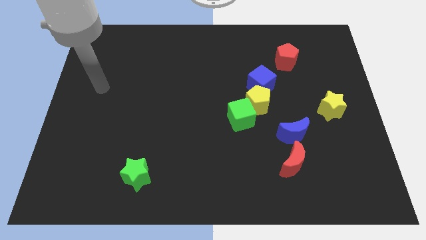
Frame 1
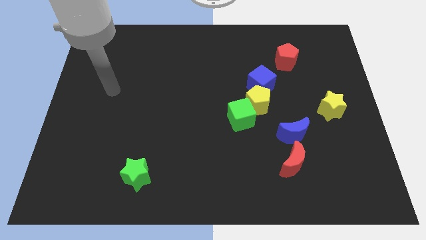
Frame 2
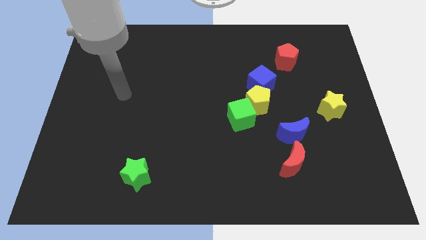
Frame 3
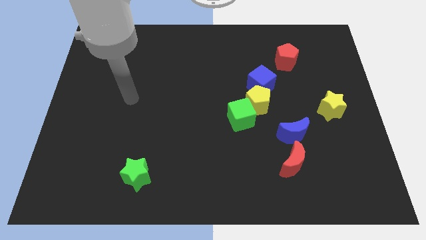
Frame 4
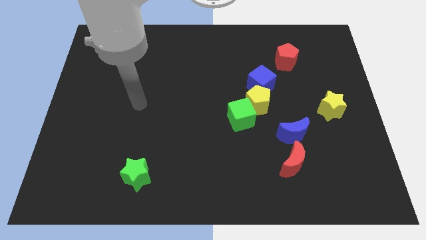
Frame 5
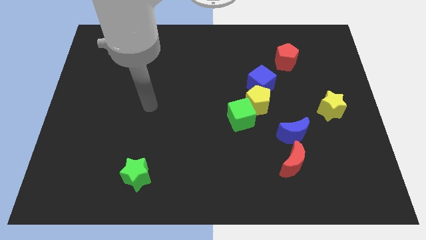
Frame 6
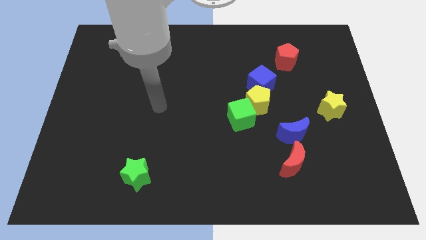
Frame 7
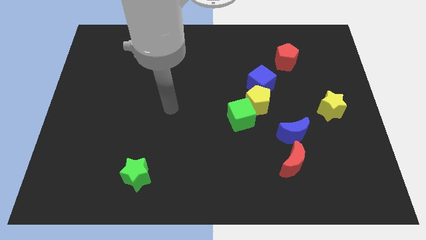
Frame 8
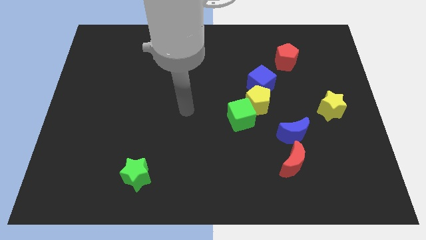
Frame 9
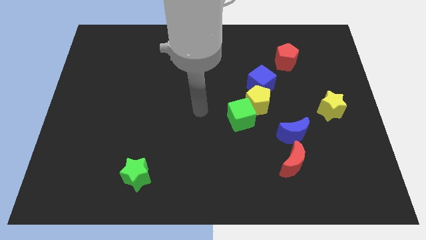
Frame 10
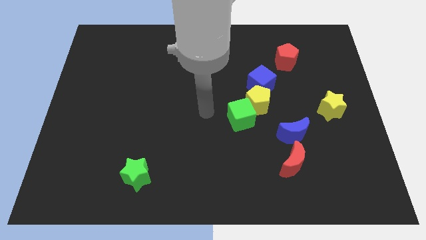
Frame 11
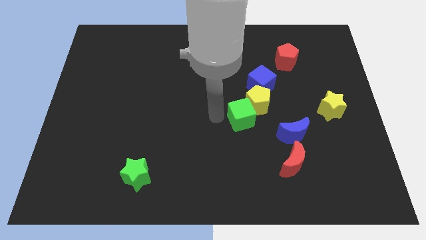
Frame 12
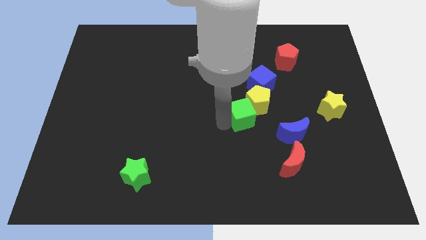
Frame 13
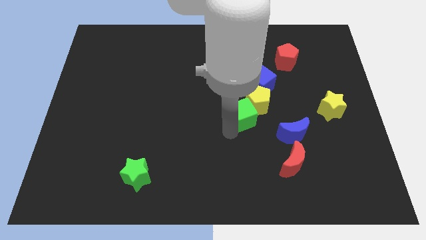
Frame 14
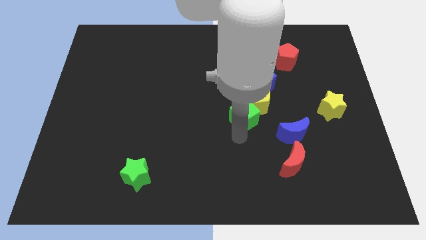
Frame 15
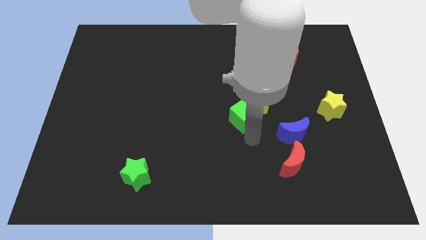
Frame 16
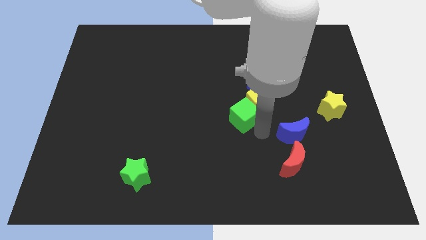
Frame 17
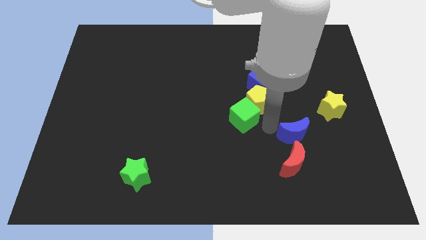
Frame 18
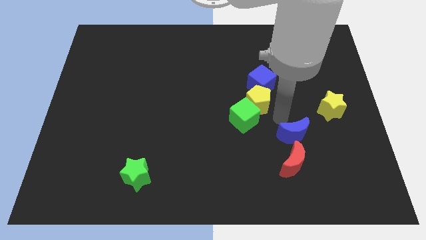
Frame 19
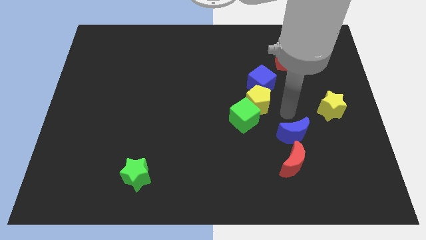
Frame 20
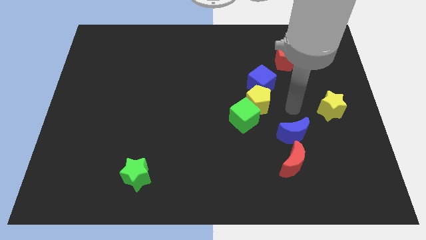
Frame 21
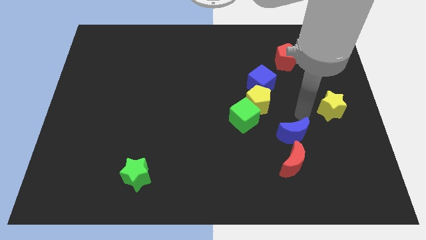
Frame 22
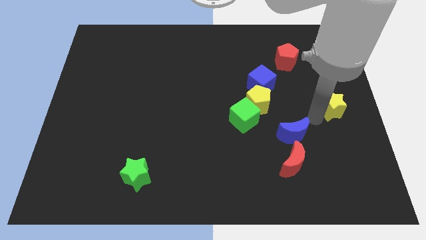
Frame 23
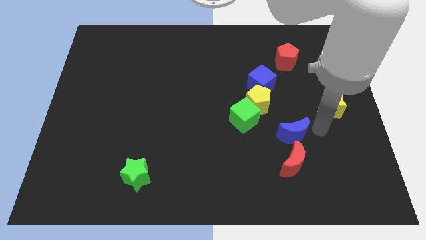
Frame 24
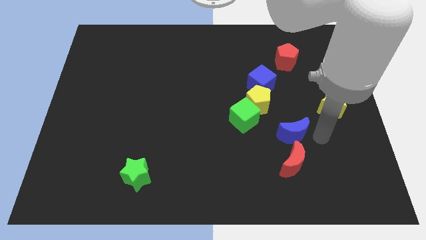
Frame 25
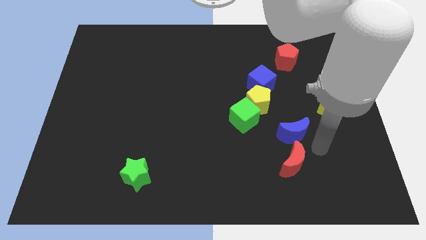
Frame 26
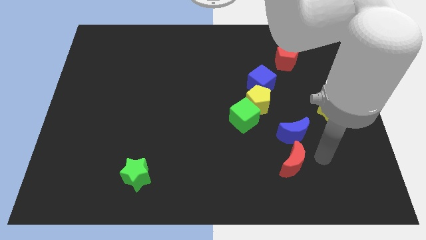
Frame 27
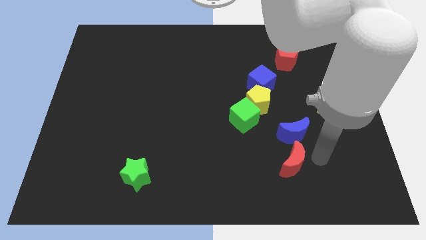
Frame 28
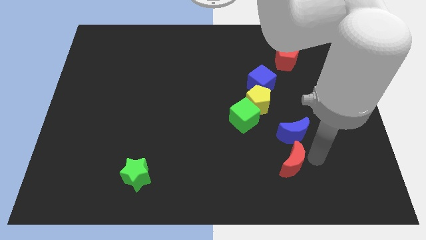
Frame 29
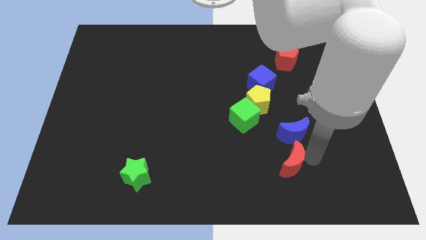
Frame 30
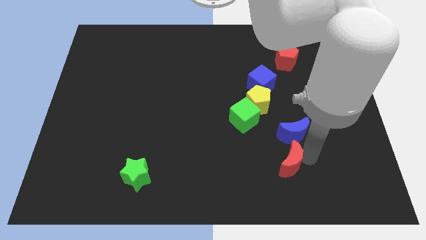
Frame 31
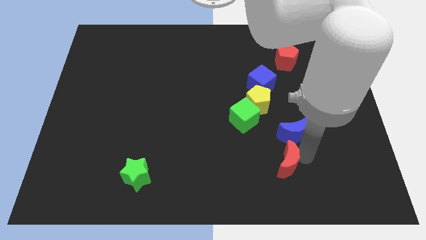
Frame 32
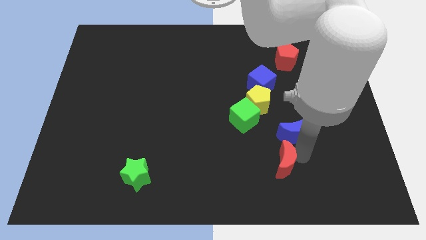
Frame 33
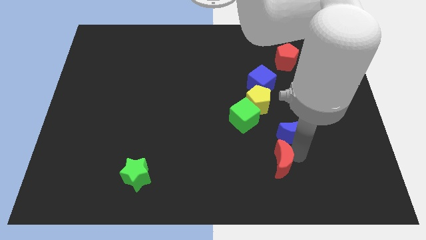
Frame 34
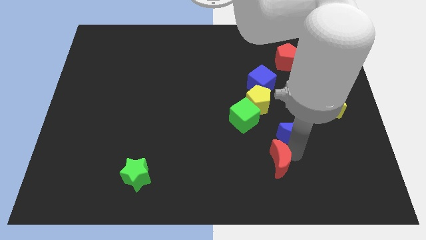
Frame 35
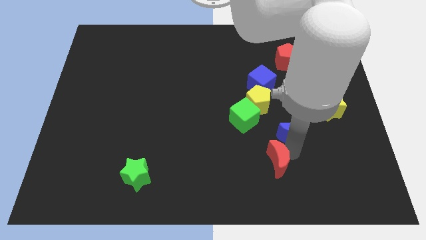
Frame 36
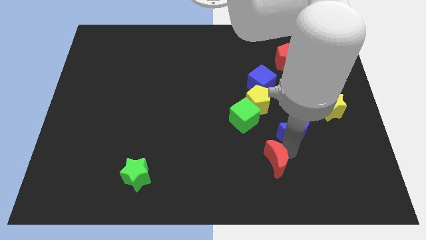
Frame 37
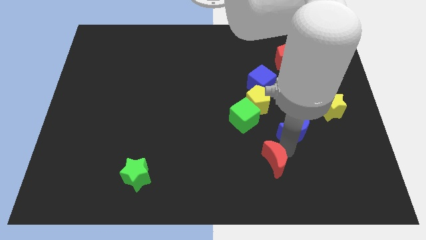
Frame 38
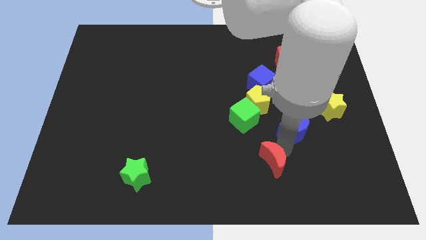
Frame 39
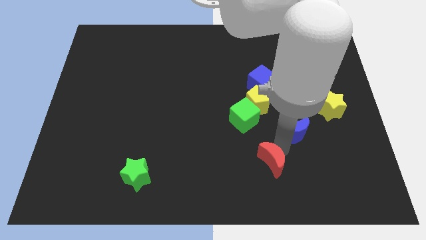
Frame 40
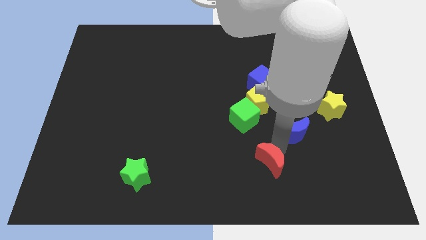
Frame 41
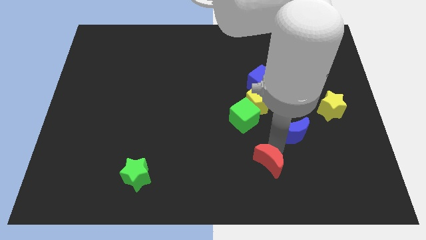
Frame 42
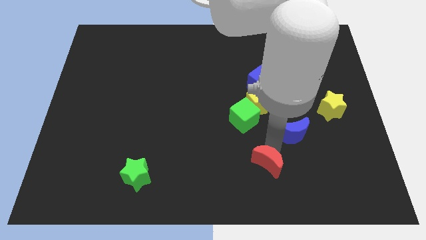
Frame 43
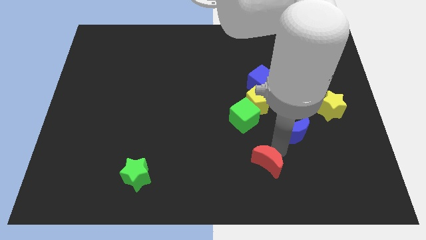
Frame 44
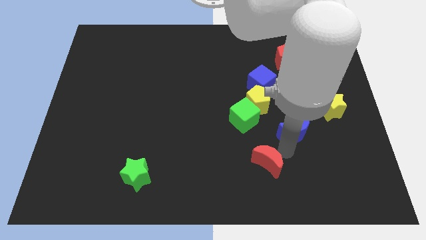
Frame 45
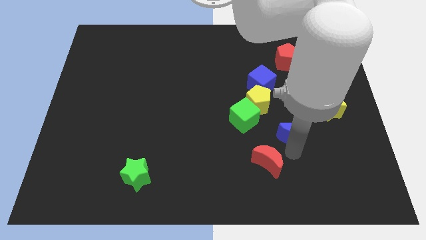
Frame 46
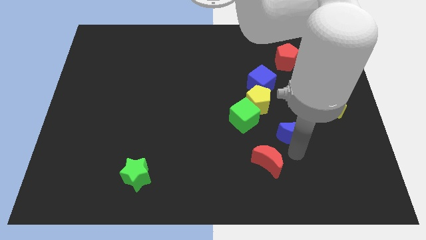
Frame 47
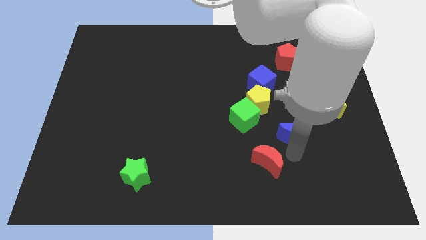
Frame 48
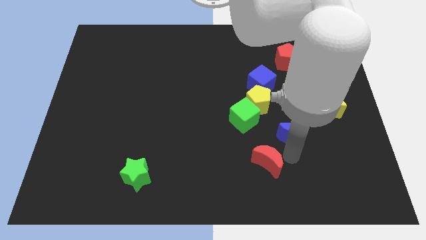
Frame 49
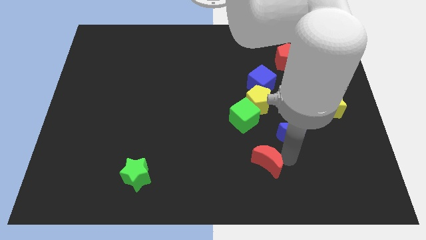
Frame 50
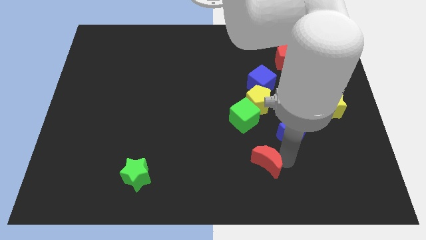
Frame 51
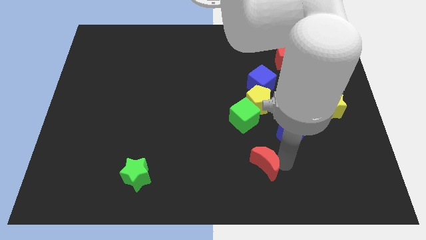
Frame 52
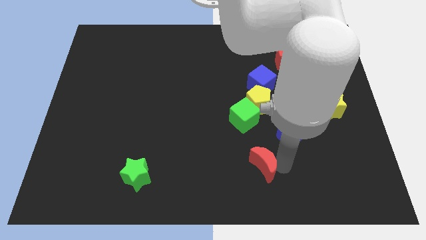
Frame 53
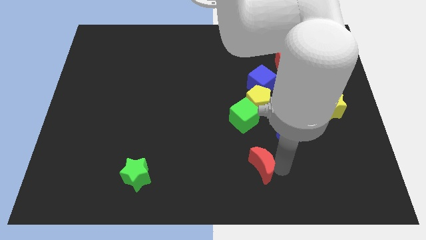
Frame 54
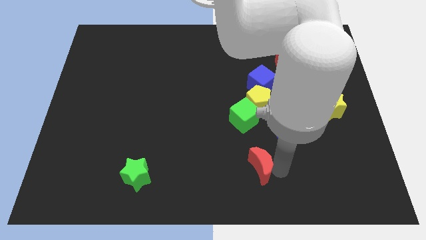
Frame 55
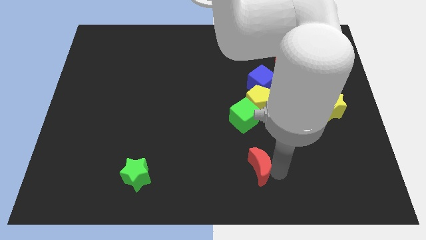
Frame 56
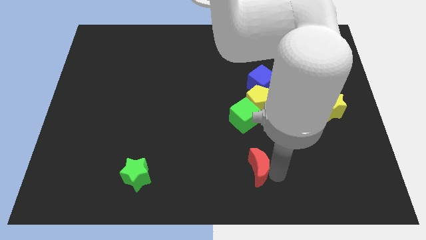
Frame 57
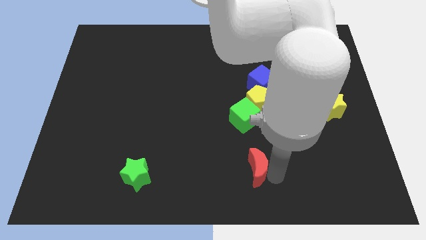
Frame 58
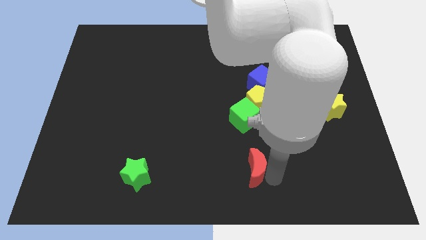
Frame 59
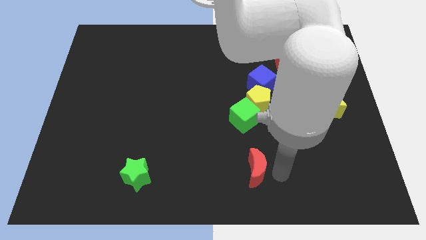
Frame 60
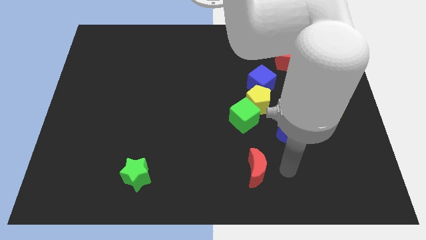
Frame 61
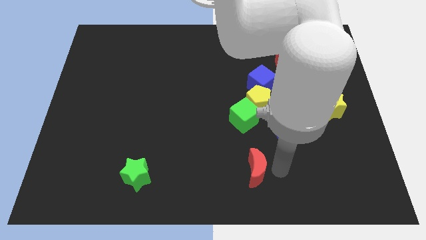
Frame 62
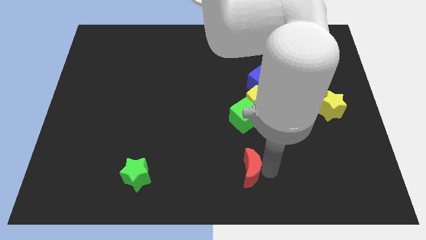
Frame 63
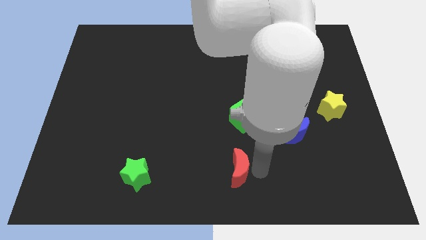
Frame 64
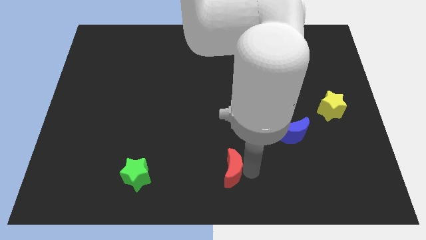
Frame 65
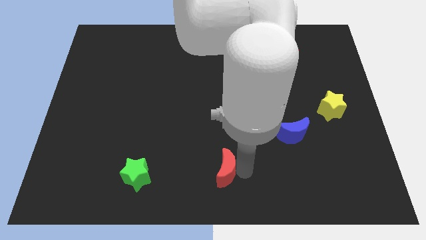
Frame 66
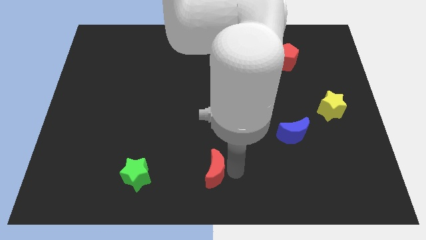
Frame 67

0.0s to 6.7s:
move the red moon to the right side of the green star

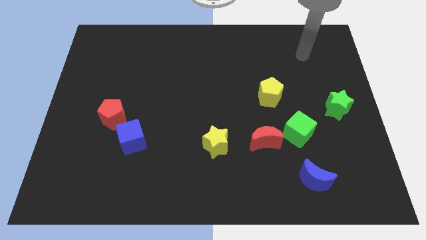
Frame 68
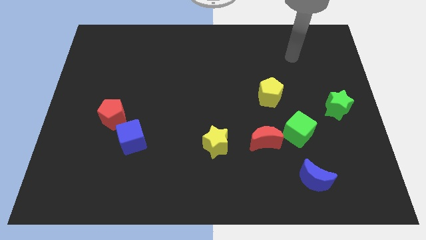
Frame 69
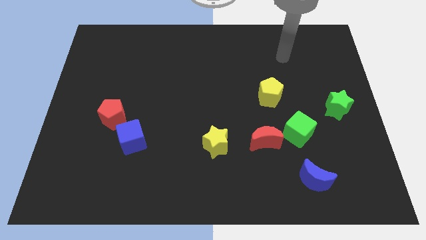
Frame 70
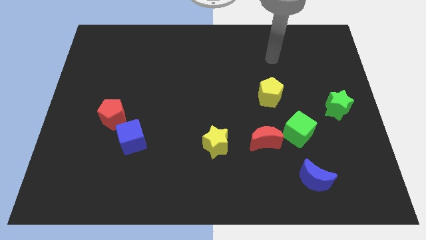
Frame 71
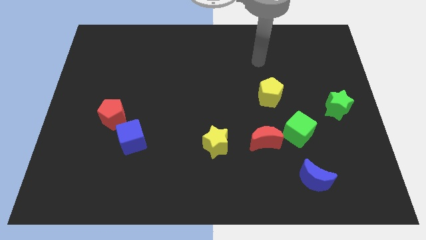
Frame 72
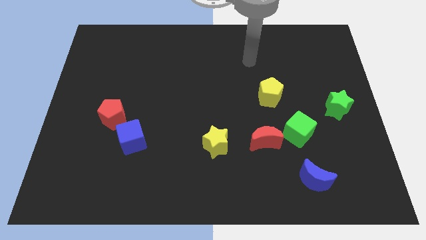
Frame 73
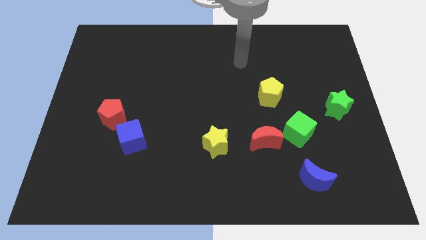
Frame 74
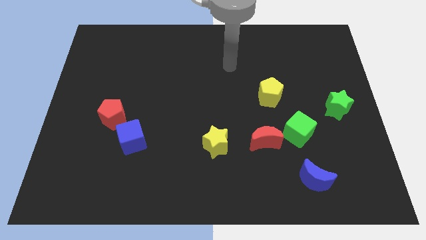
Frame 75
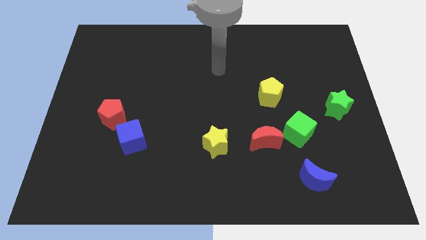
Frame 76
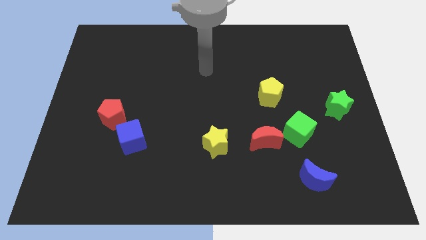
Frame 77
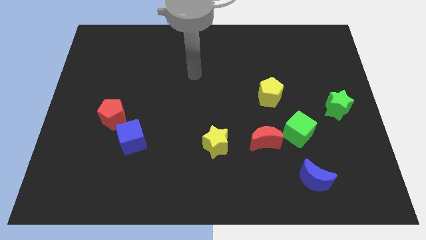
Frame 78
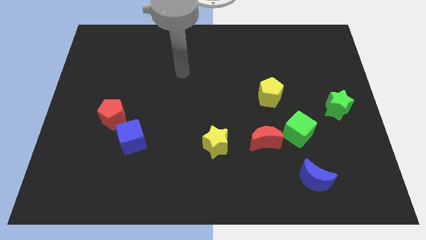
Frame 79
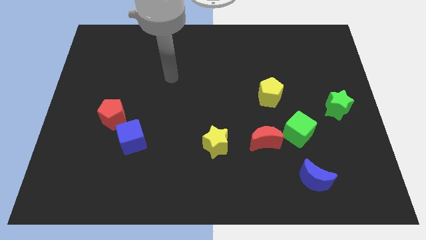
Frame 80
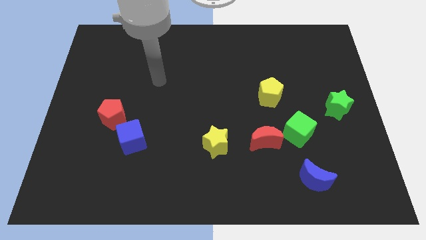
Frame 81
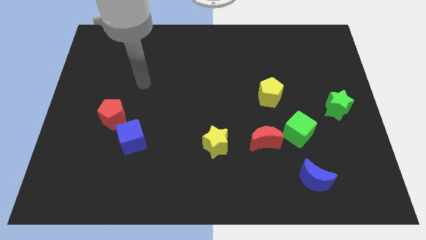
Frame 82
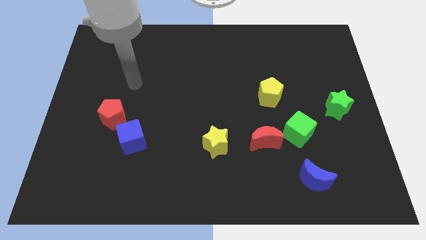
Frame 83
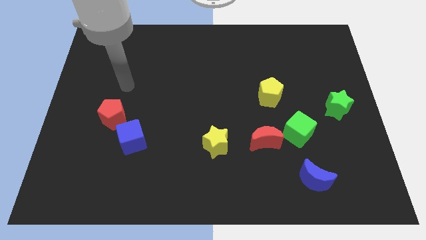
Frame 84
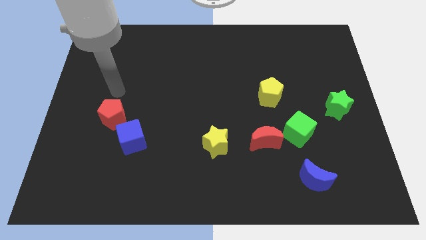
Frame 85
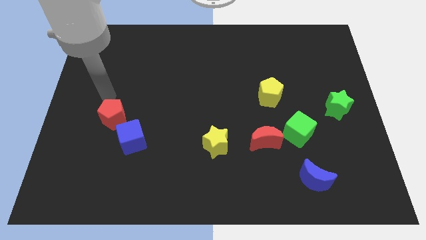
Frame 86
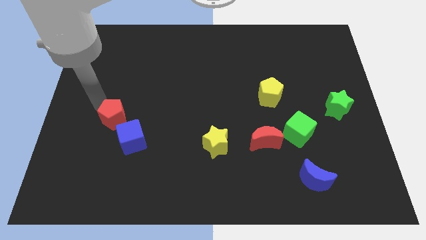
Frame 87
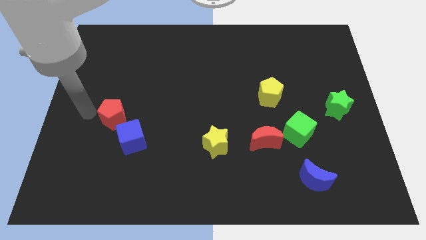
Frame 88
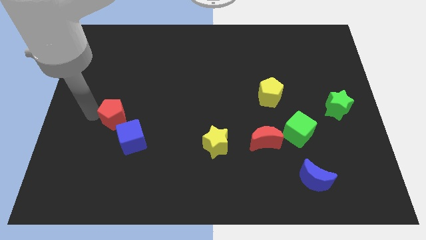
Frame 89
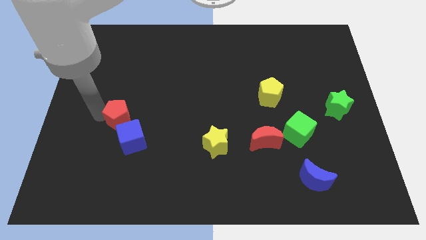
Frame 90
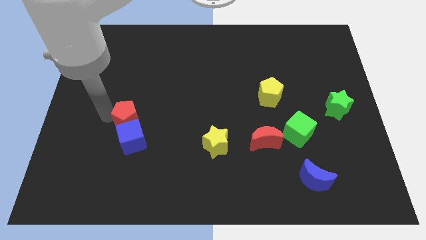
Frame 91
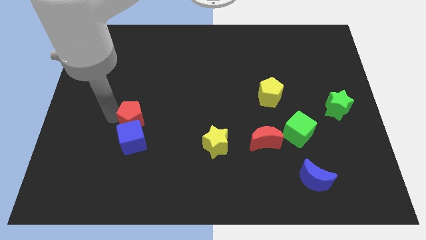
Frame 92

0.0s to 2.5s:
move the red pentagon to the top right of the blue cube
